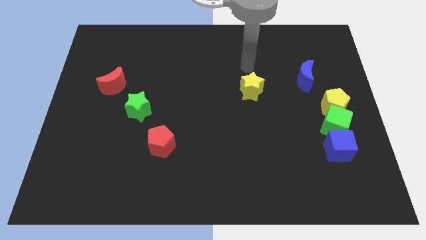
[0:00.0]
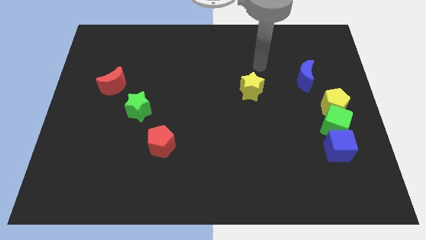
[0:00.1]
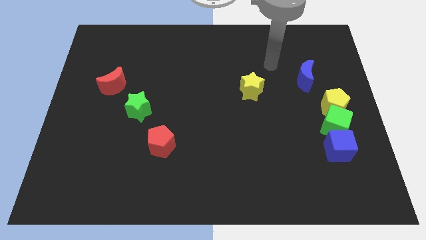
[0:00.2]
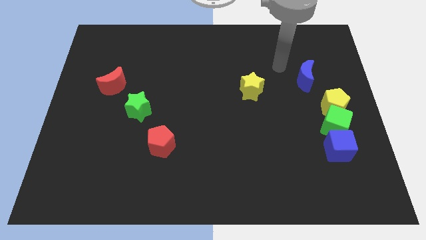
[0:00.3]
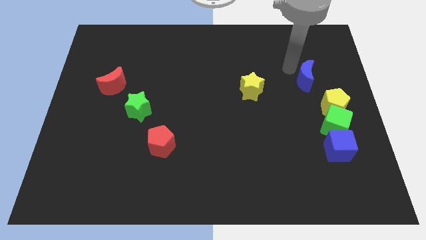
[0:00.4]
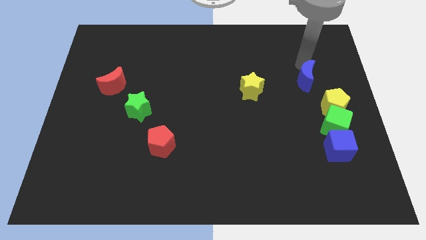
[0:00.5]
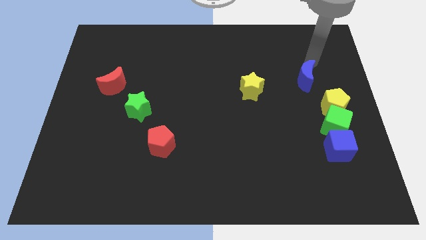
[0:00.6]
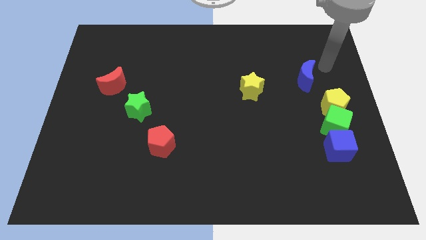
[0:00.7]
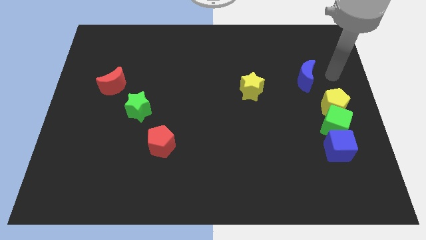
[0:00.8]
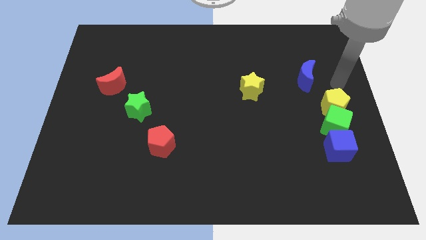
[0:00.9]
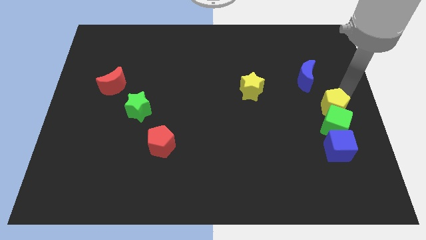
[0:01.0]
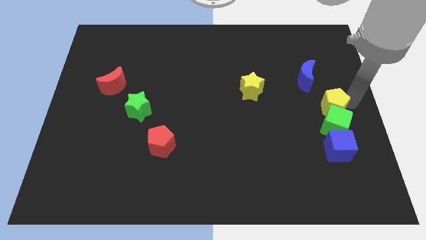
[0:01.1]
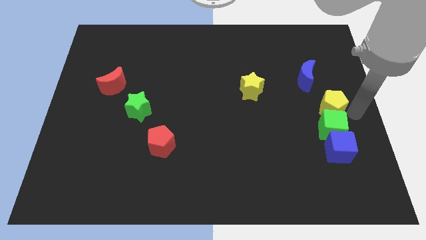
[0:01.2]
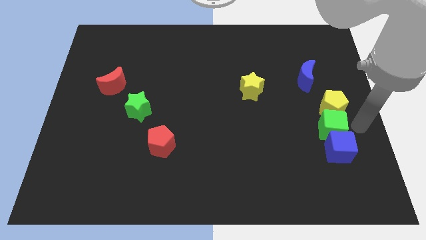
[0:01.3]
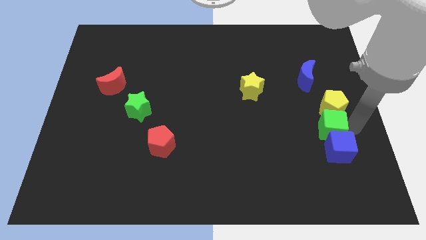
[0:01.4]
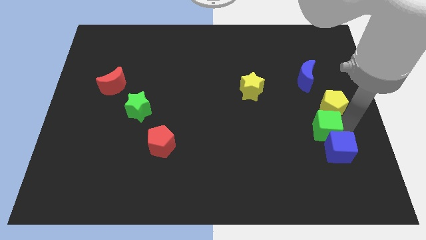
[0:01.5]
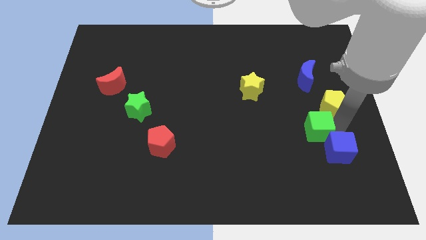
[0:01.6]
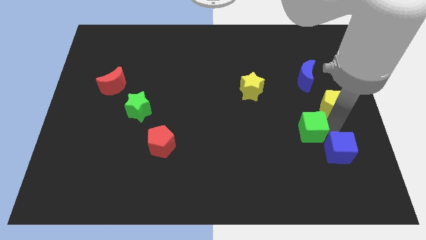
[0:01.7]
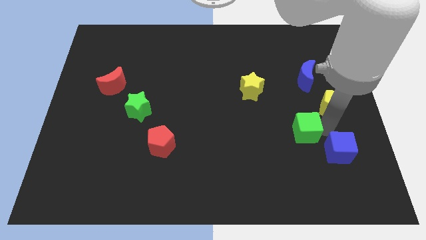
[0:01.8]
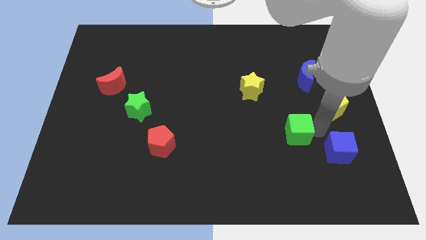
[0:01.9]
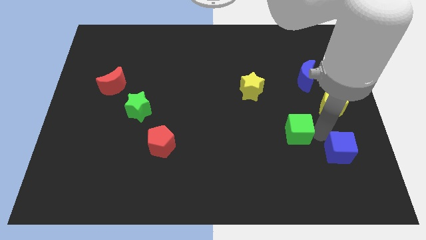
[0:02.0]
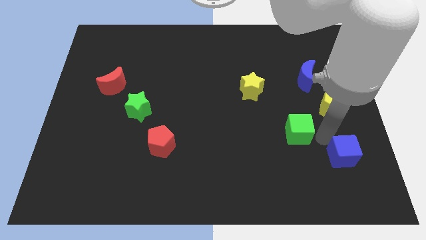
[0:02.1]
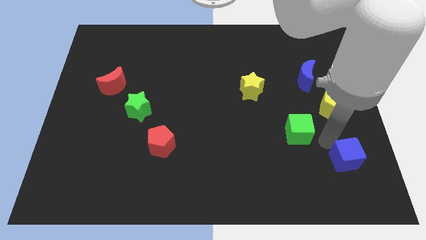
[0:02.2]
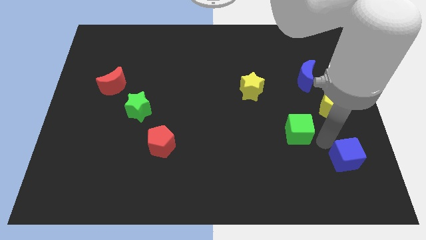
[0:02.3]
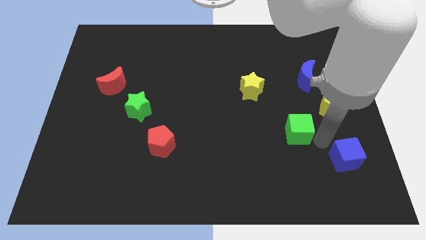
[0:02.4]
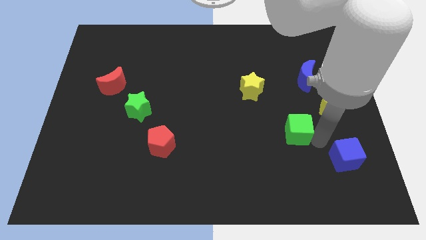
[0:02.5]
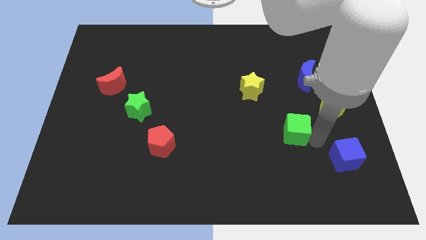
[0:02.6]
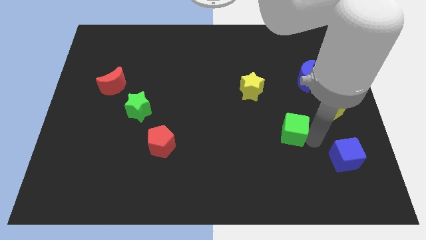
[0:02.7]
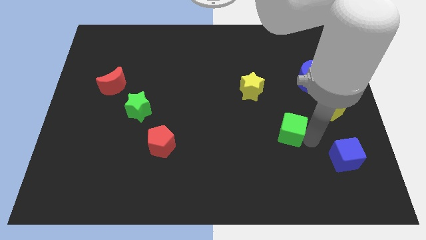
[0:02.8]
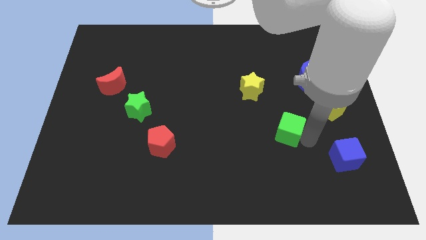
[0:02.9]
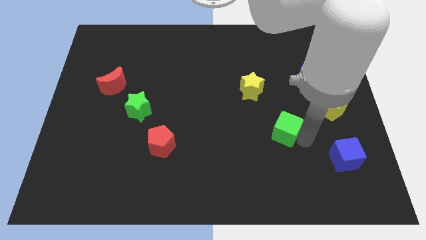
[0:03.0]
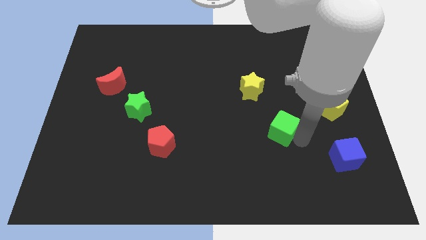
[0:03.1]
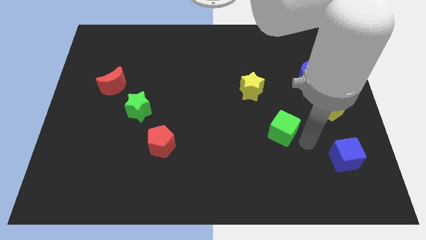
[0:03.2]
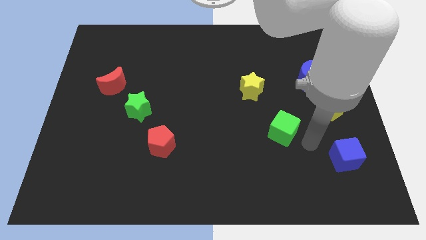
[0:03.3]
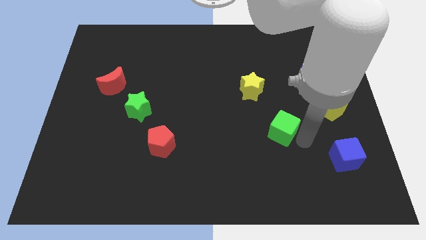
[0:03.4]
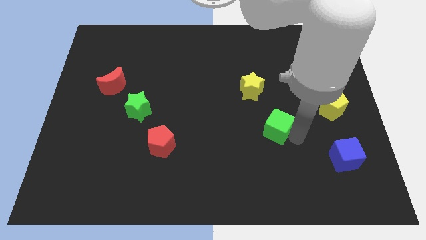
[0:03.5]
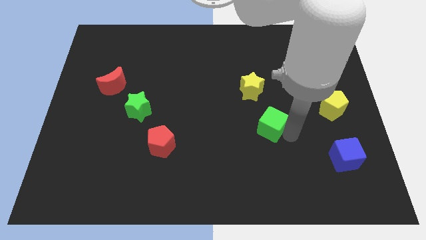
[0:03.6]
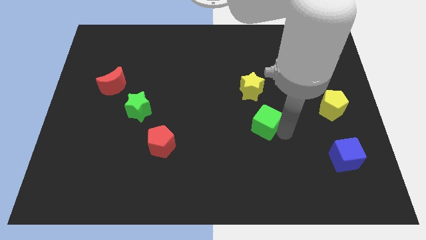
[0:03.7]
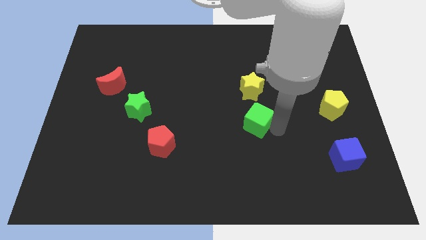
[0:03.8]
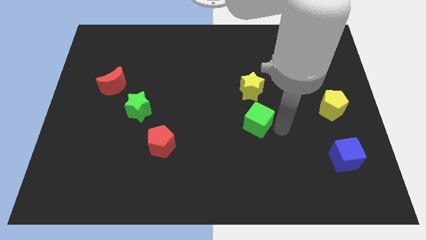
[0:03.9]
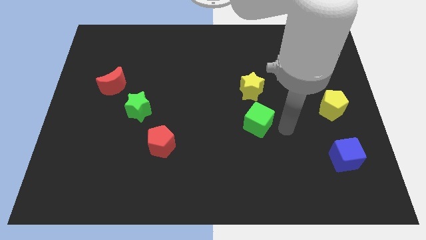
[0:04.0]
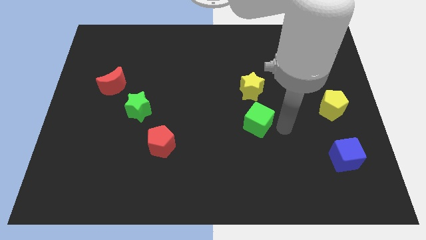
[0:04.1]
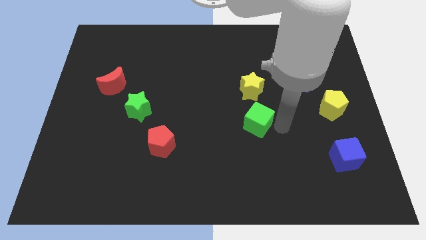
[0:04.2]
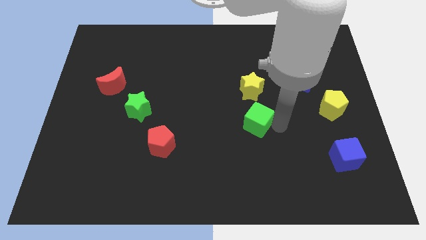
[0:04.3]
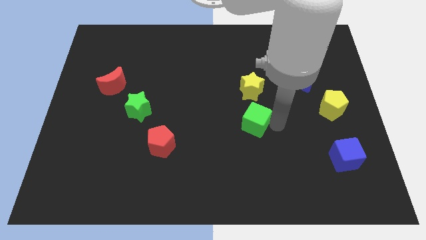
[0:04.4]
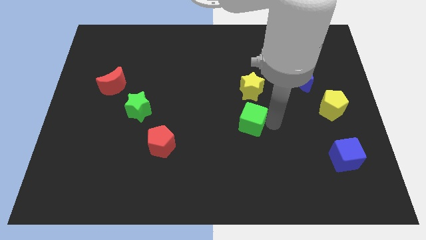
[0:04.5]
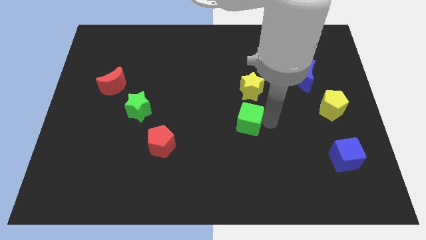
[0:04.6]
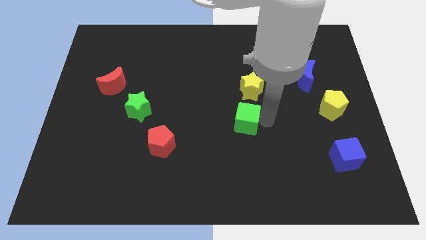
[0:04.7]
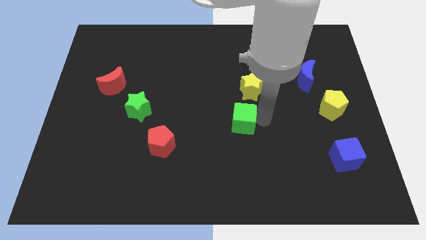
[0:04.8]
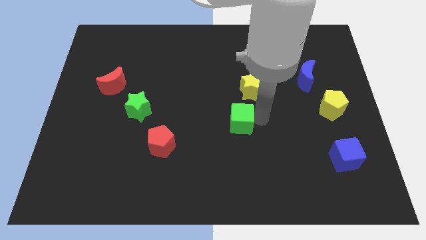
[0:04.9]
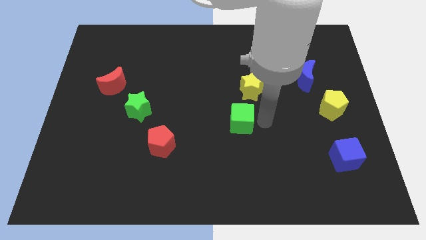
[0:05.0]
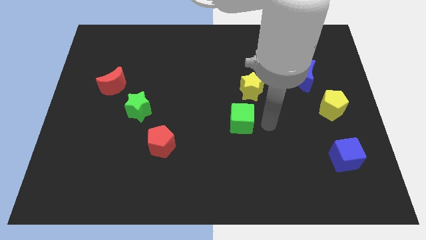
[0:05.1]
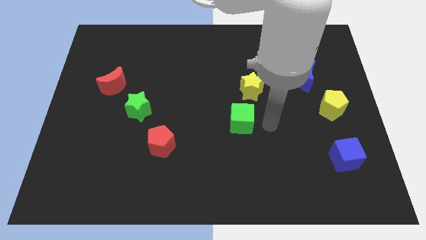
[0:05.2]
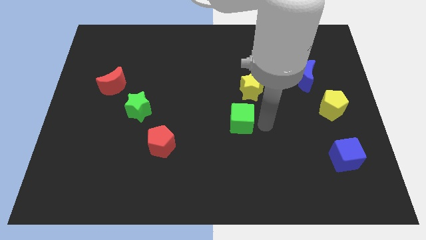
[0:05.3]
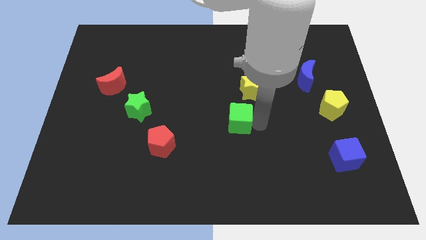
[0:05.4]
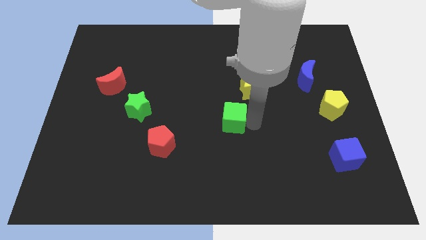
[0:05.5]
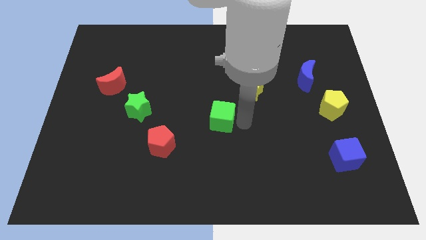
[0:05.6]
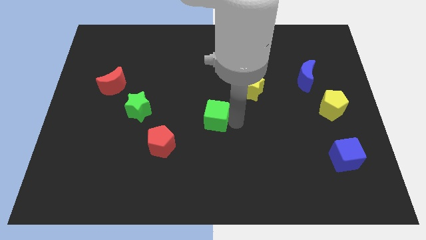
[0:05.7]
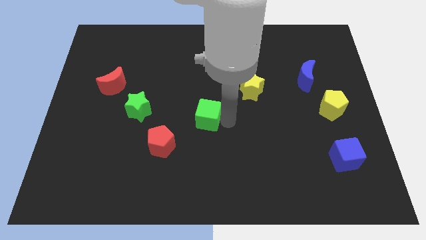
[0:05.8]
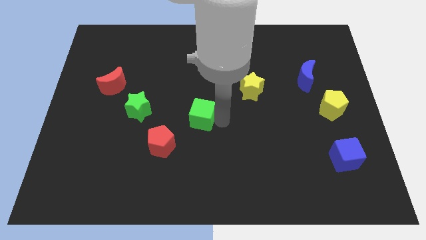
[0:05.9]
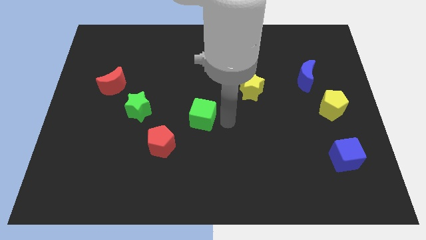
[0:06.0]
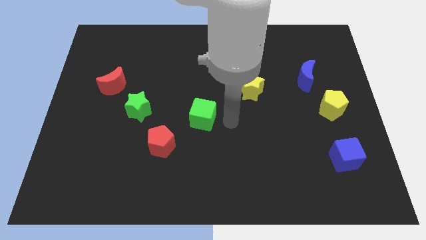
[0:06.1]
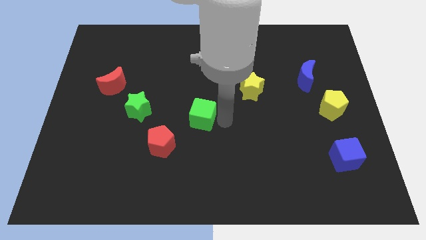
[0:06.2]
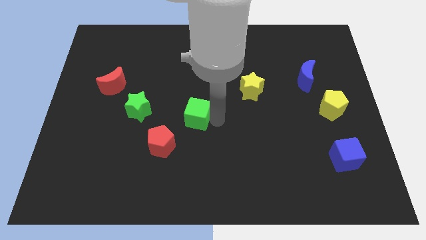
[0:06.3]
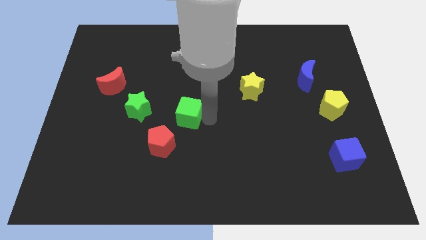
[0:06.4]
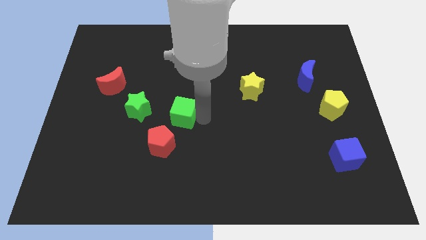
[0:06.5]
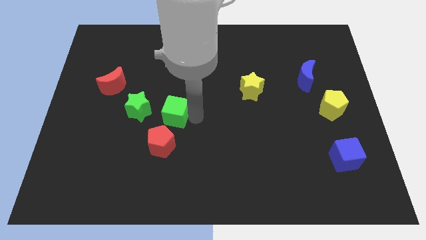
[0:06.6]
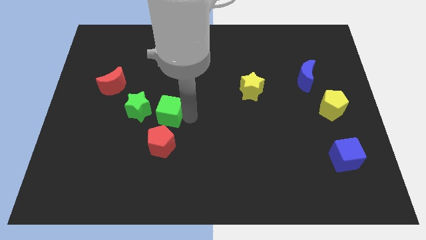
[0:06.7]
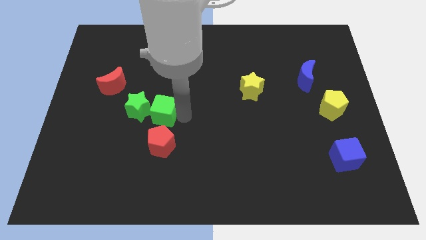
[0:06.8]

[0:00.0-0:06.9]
slide the green cube to the green star

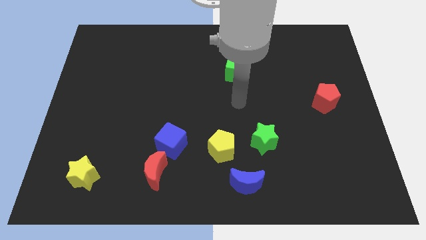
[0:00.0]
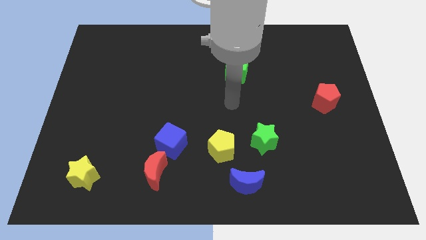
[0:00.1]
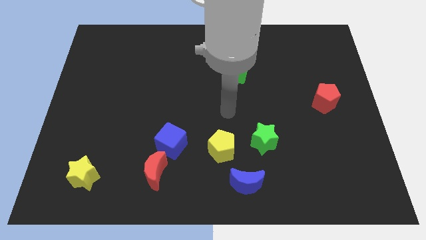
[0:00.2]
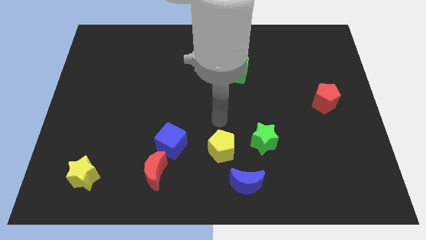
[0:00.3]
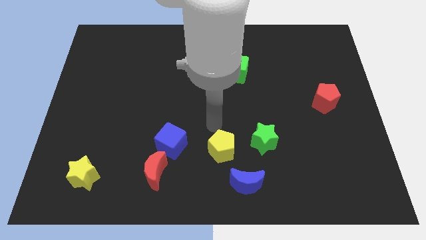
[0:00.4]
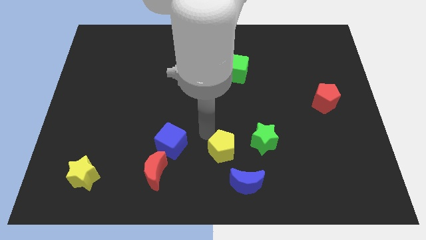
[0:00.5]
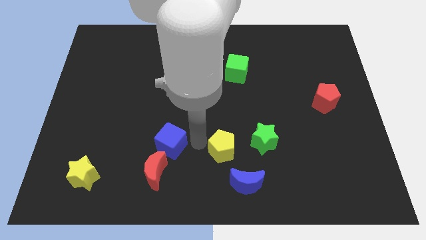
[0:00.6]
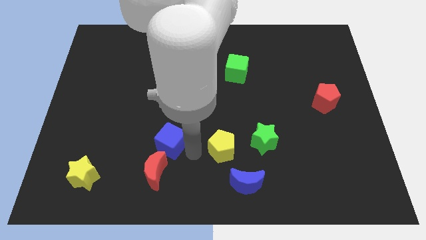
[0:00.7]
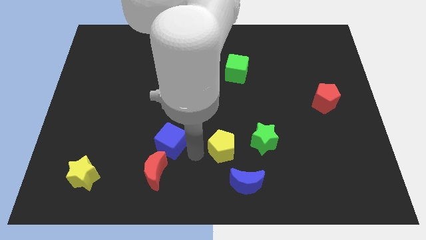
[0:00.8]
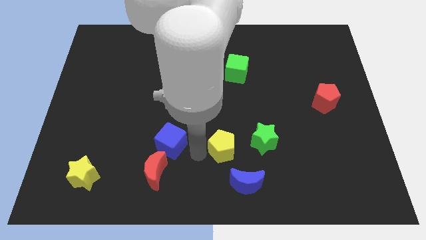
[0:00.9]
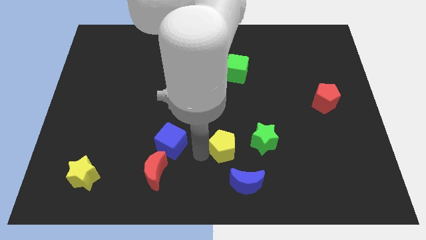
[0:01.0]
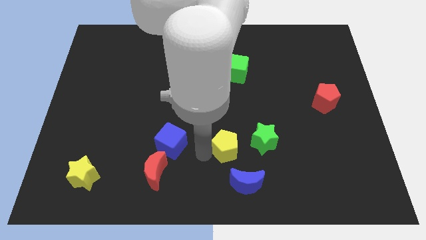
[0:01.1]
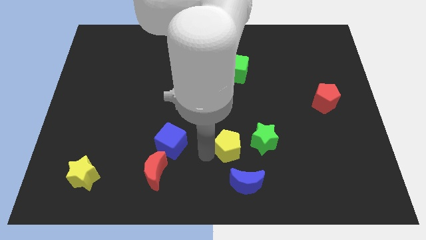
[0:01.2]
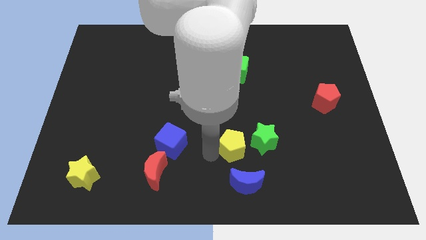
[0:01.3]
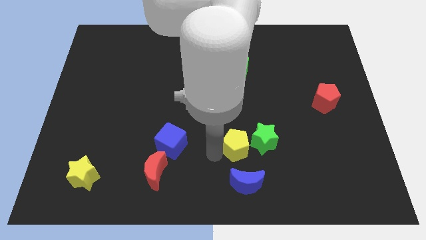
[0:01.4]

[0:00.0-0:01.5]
put the yellow pentagon close to the green star
